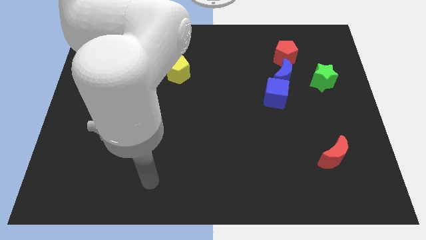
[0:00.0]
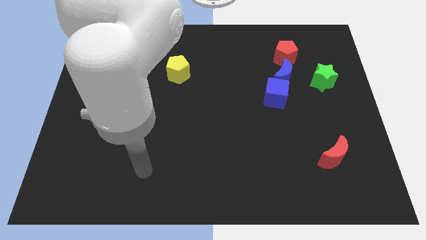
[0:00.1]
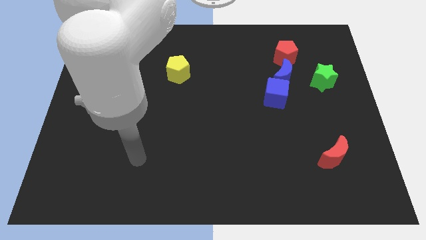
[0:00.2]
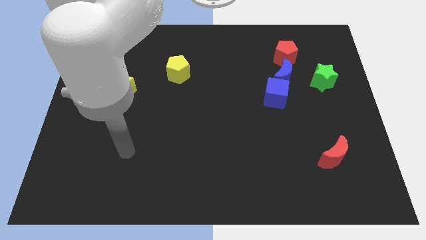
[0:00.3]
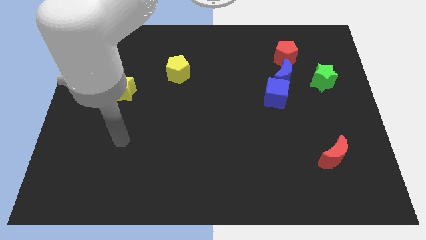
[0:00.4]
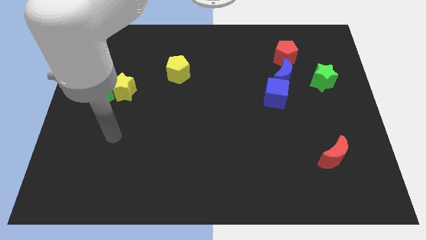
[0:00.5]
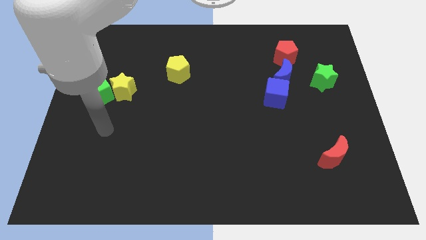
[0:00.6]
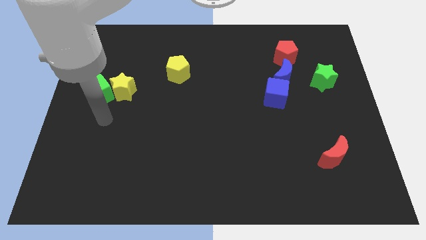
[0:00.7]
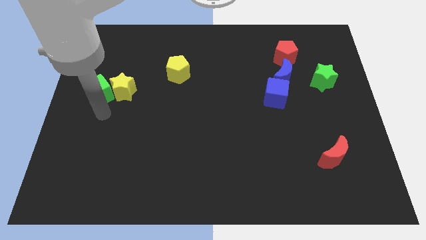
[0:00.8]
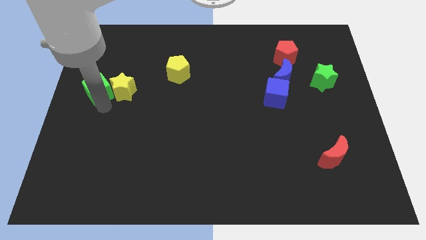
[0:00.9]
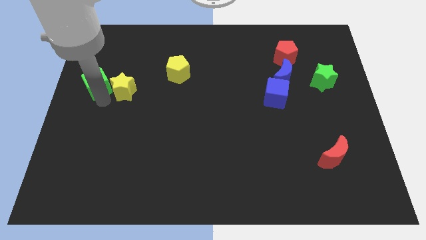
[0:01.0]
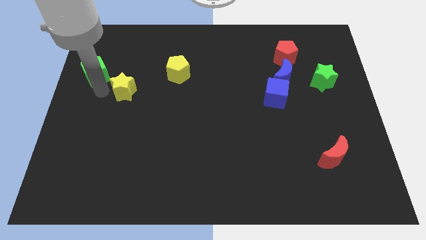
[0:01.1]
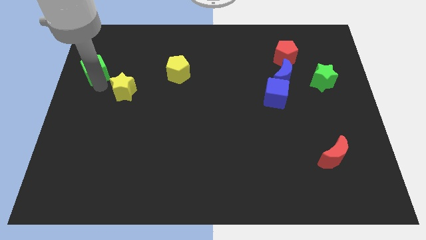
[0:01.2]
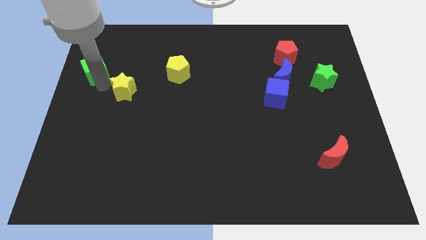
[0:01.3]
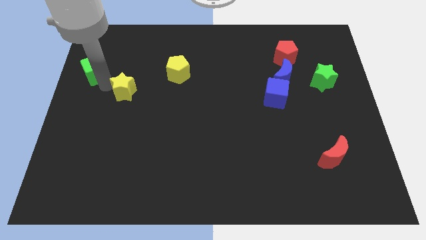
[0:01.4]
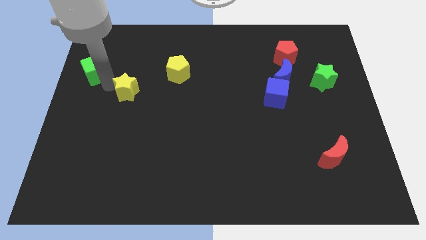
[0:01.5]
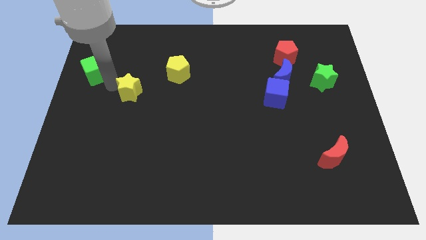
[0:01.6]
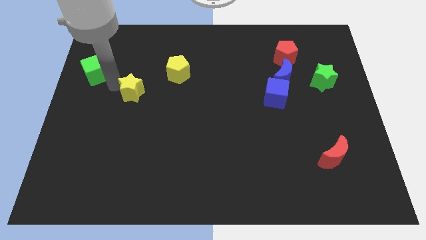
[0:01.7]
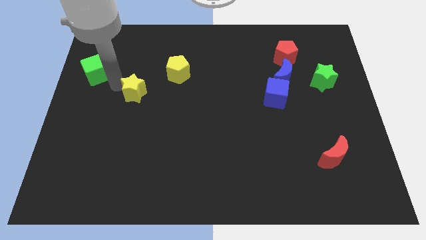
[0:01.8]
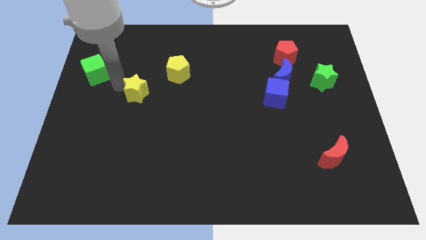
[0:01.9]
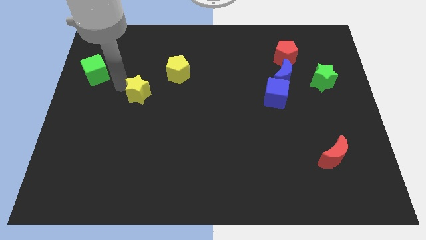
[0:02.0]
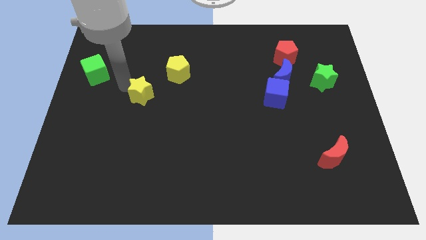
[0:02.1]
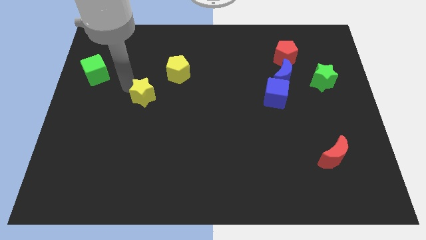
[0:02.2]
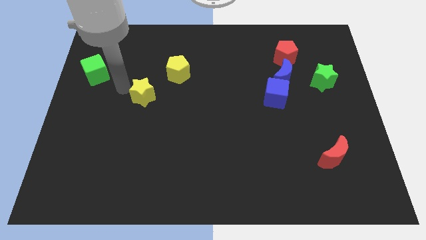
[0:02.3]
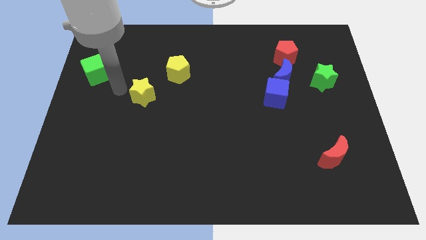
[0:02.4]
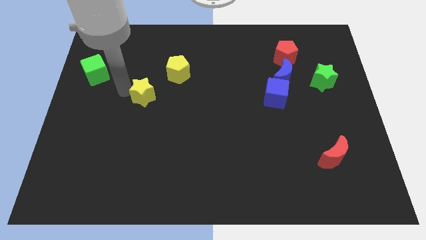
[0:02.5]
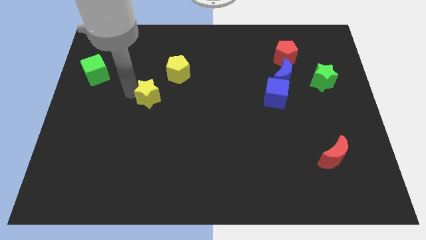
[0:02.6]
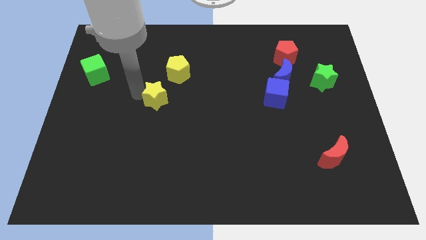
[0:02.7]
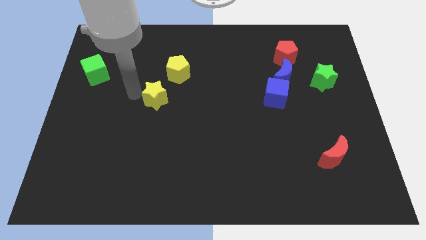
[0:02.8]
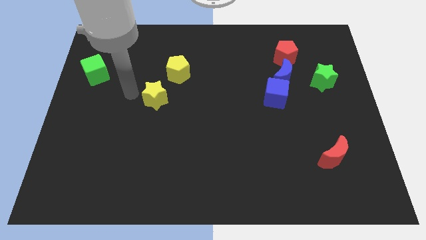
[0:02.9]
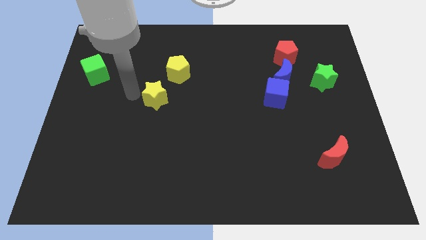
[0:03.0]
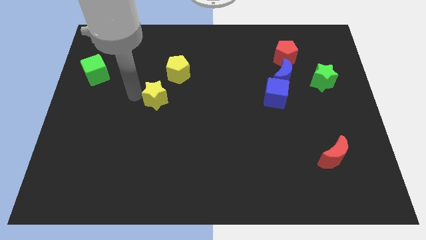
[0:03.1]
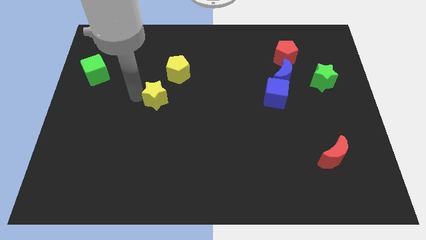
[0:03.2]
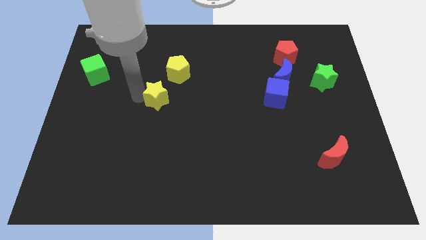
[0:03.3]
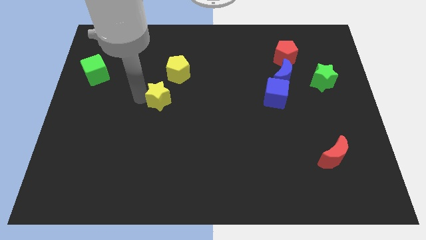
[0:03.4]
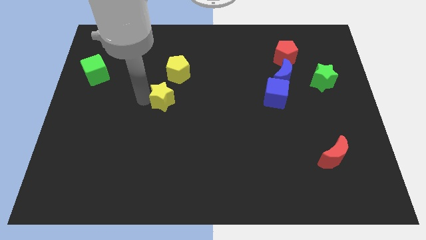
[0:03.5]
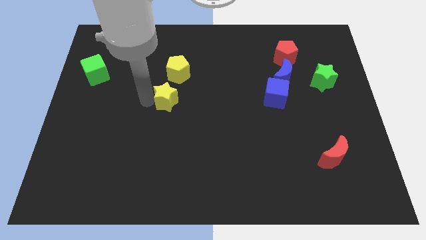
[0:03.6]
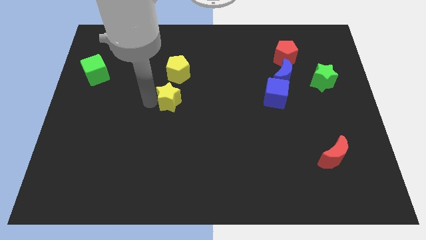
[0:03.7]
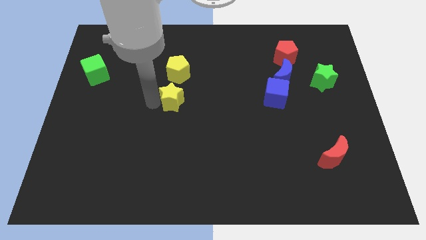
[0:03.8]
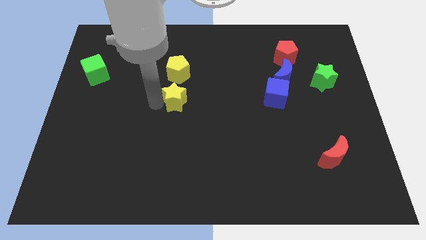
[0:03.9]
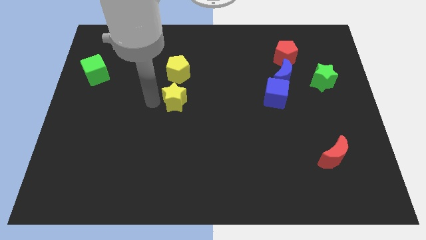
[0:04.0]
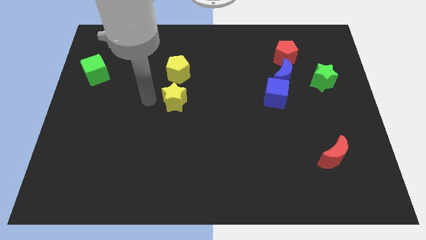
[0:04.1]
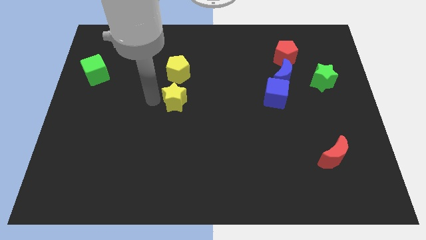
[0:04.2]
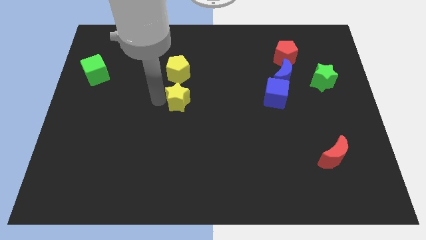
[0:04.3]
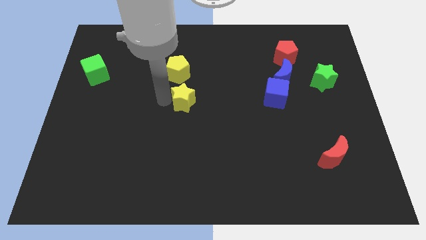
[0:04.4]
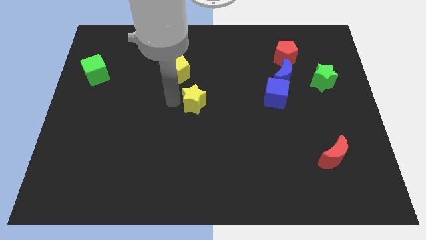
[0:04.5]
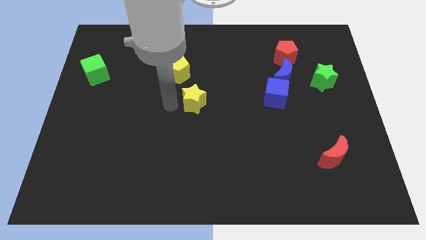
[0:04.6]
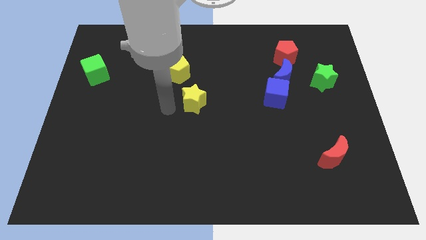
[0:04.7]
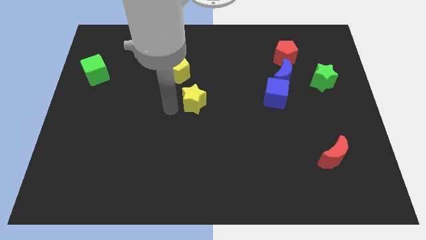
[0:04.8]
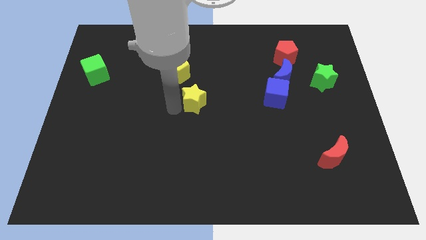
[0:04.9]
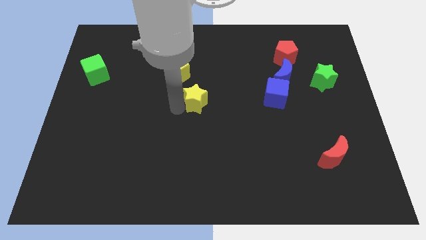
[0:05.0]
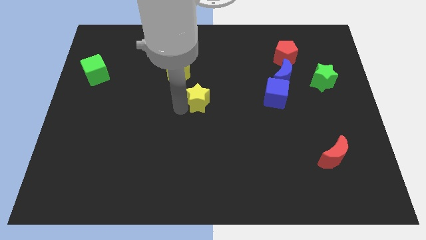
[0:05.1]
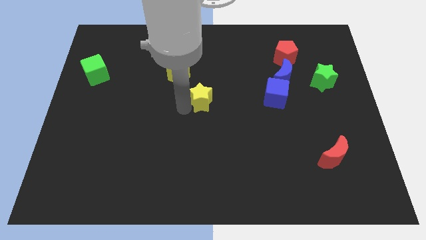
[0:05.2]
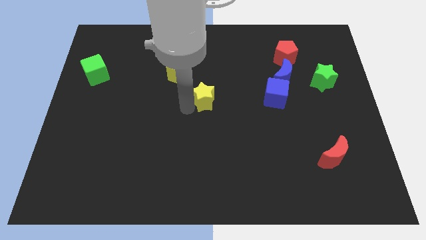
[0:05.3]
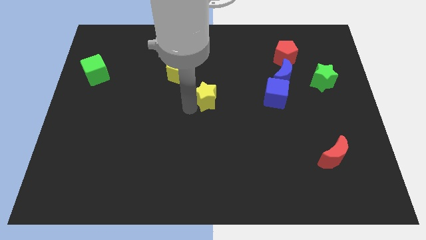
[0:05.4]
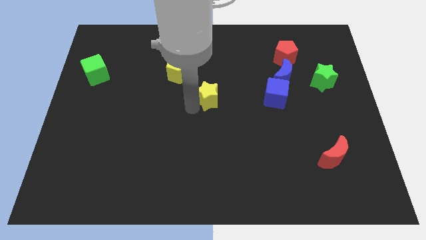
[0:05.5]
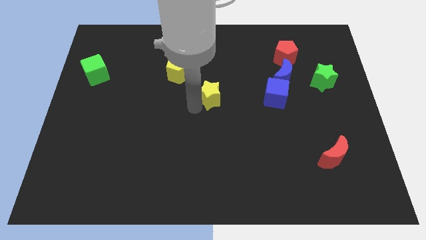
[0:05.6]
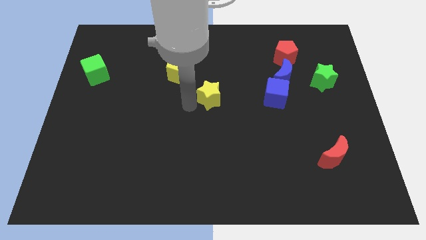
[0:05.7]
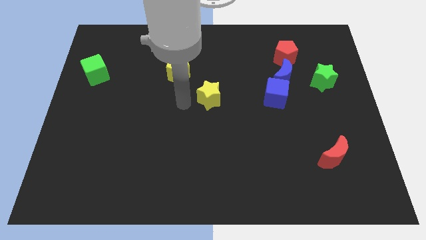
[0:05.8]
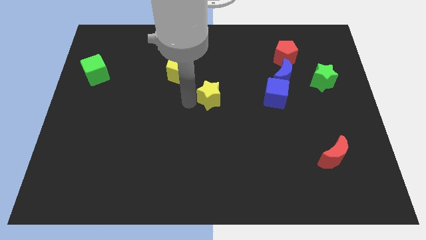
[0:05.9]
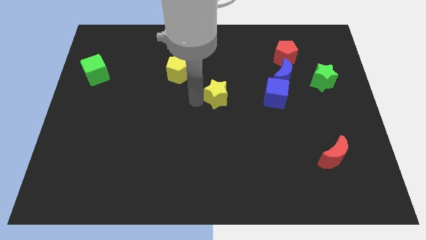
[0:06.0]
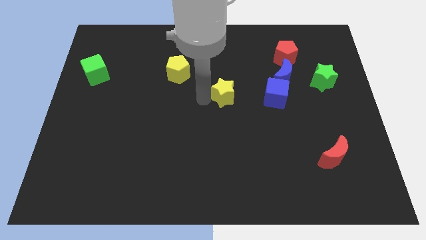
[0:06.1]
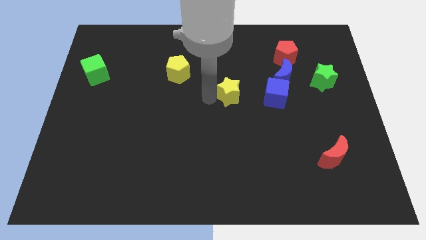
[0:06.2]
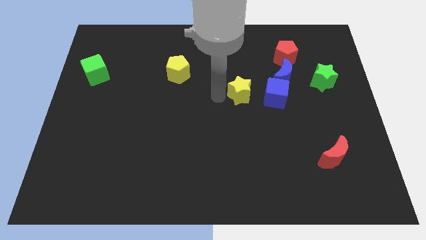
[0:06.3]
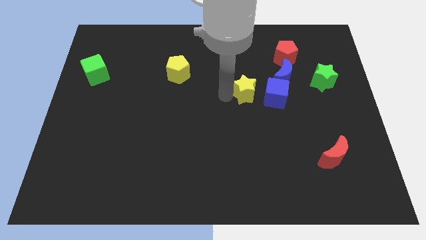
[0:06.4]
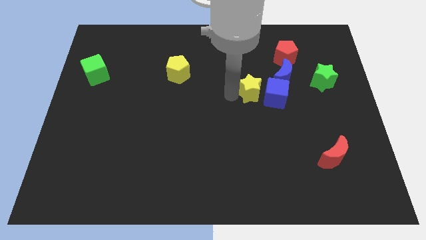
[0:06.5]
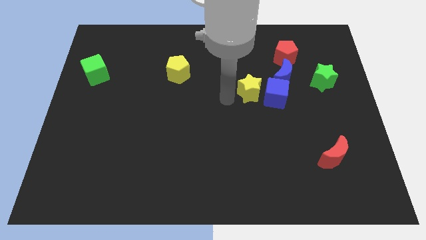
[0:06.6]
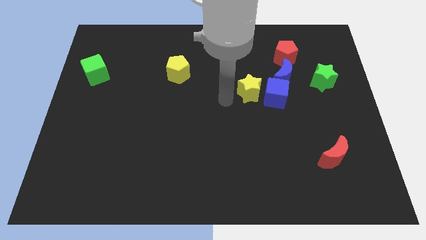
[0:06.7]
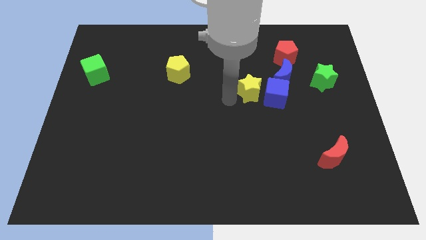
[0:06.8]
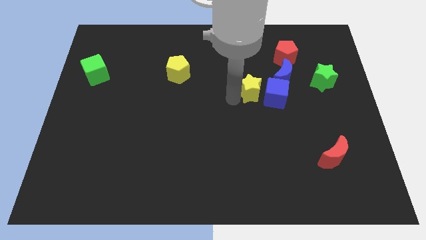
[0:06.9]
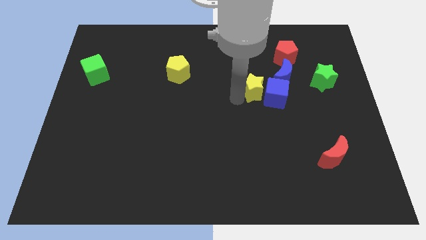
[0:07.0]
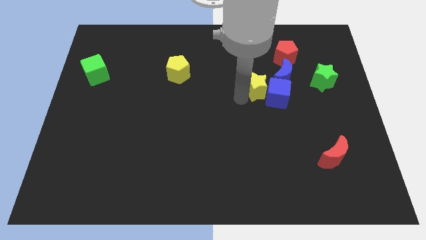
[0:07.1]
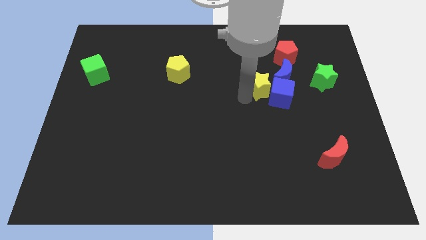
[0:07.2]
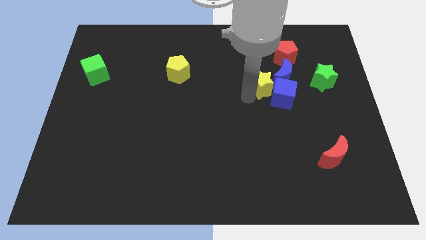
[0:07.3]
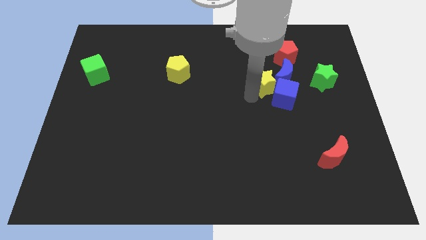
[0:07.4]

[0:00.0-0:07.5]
move the yellow star towards the blue moon
